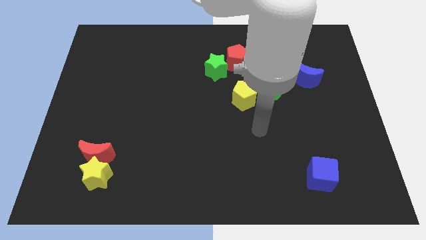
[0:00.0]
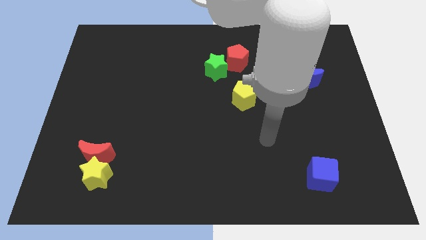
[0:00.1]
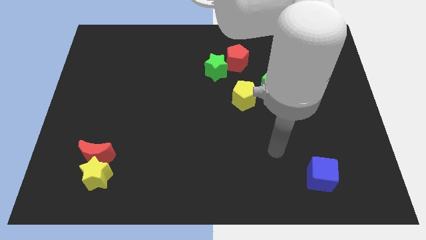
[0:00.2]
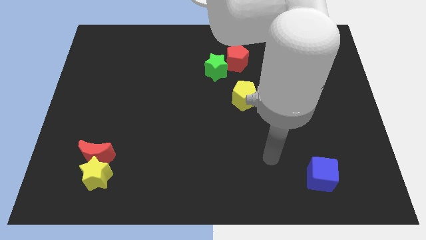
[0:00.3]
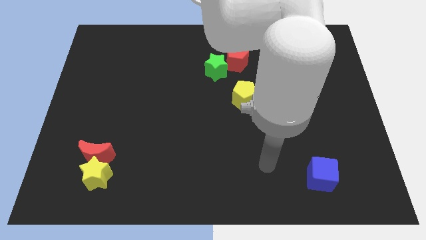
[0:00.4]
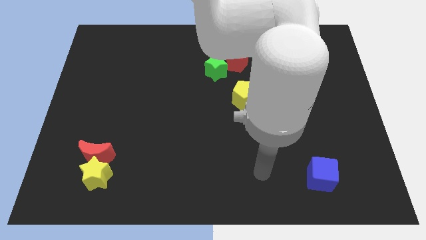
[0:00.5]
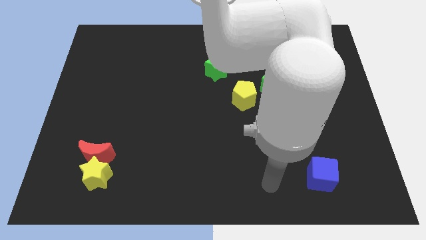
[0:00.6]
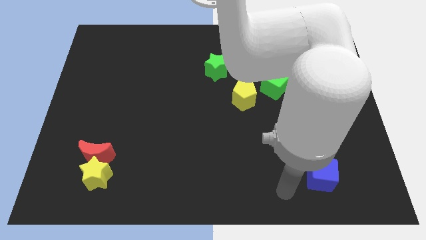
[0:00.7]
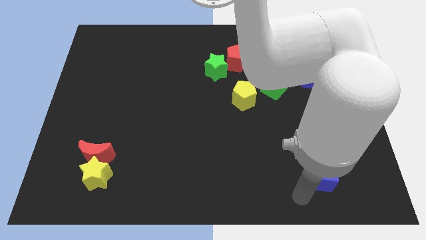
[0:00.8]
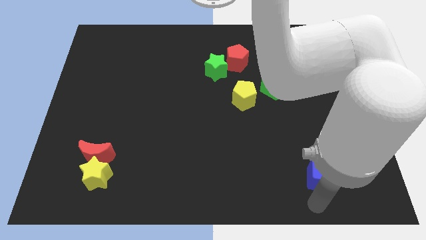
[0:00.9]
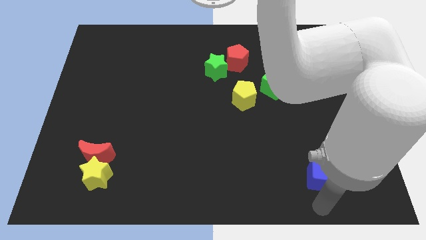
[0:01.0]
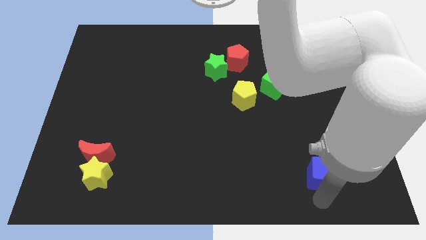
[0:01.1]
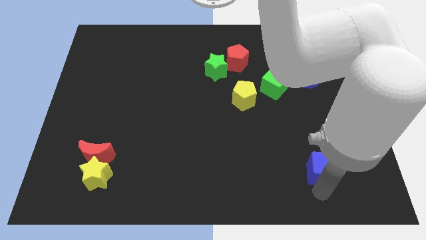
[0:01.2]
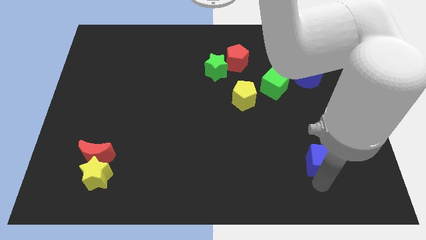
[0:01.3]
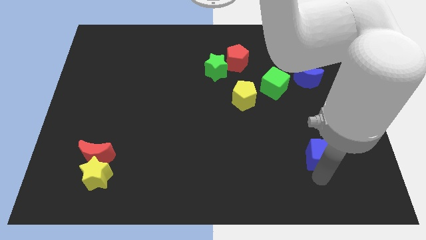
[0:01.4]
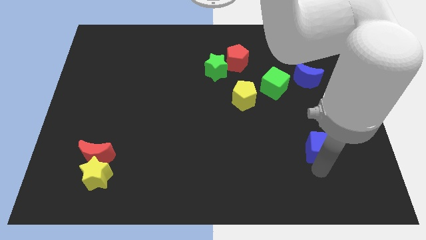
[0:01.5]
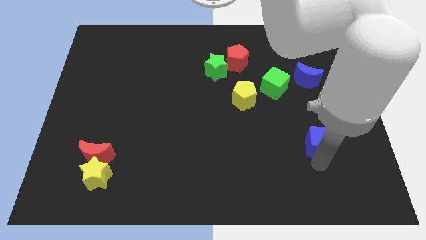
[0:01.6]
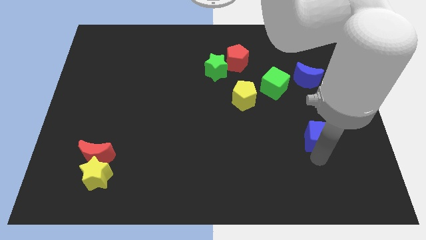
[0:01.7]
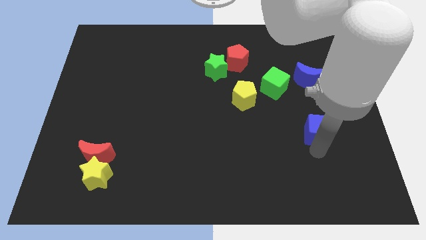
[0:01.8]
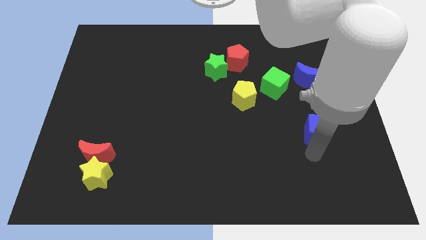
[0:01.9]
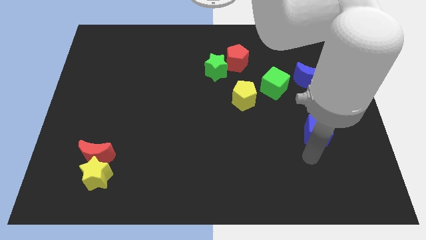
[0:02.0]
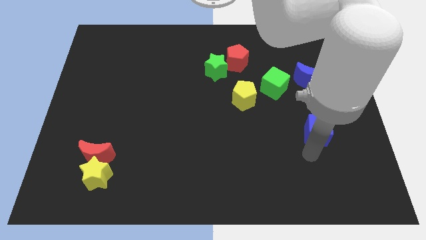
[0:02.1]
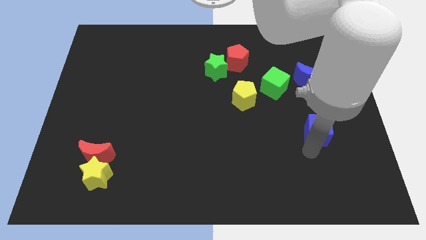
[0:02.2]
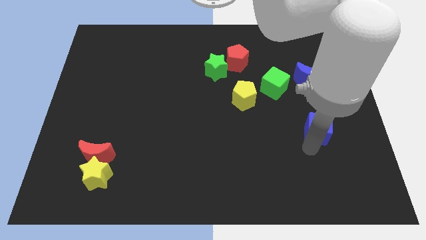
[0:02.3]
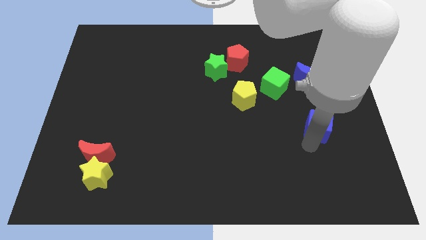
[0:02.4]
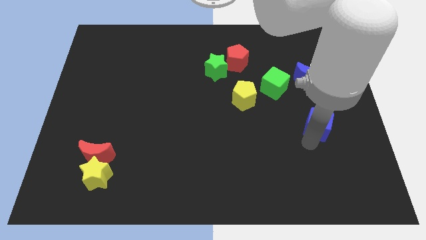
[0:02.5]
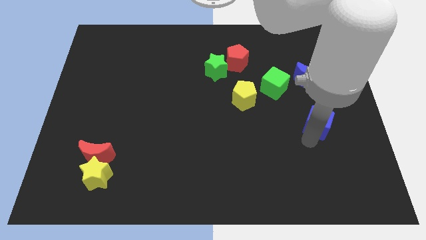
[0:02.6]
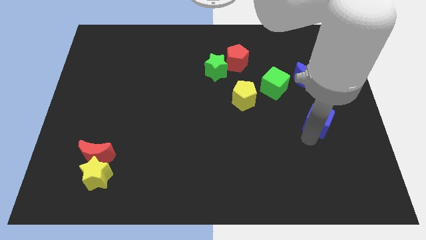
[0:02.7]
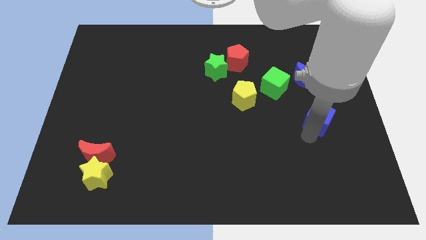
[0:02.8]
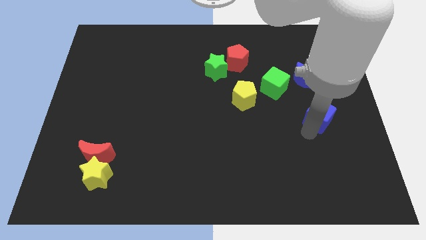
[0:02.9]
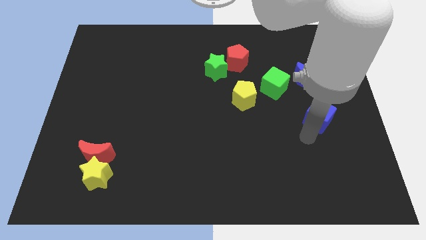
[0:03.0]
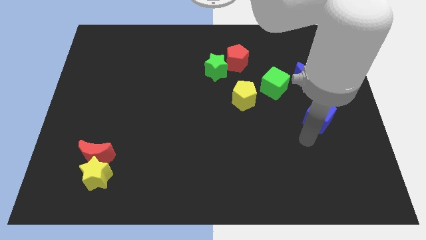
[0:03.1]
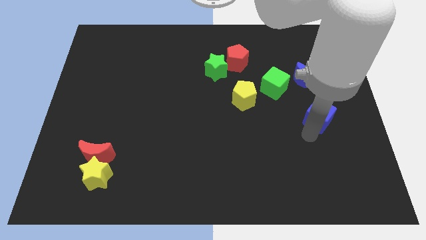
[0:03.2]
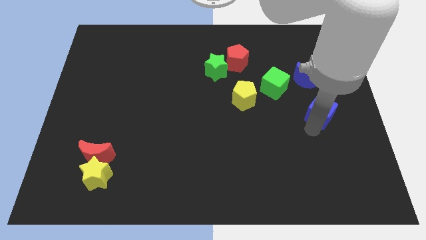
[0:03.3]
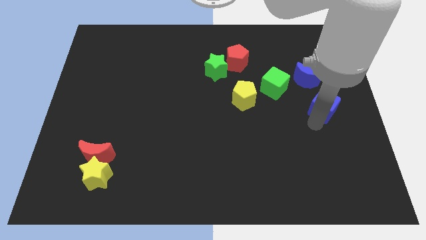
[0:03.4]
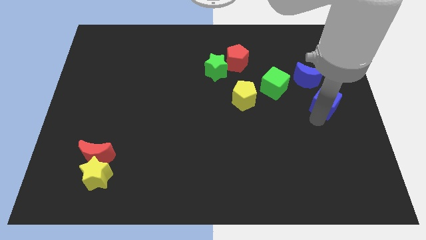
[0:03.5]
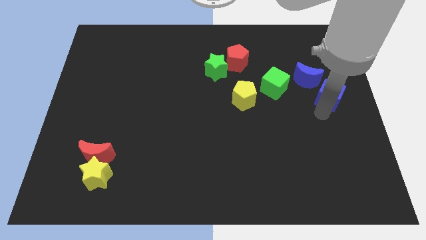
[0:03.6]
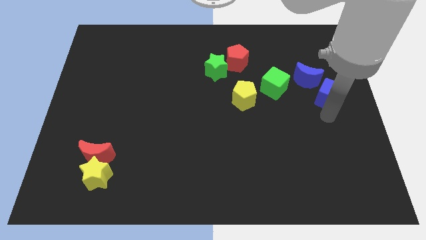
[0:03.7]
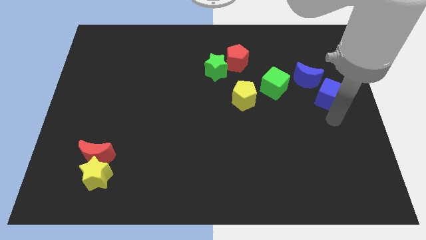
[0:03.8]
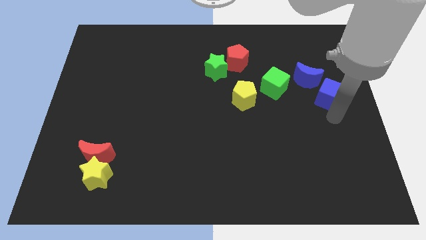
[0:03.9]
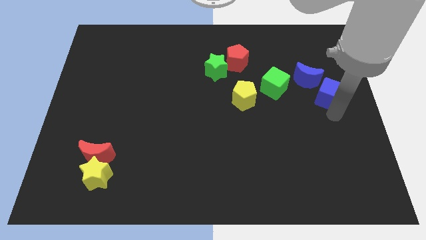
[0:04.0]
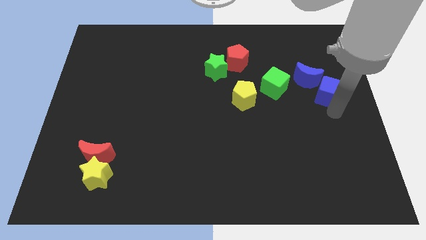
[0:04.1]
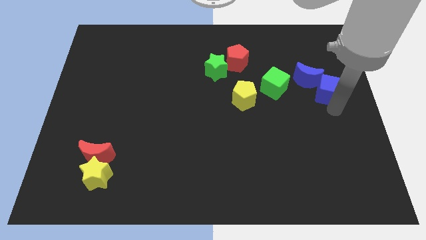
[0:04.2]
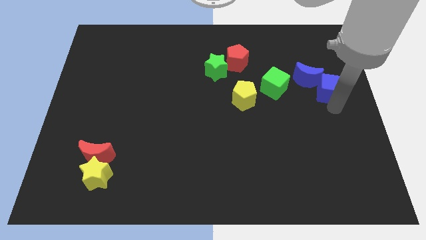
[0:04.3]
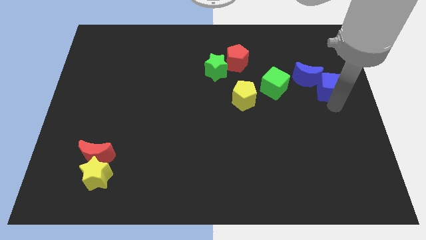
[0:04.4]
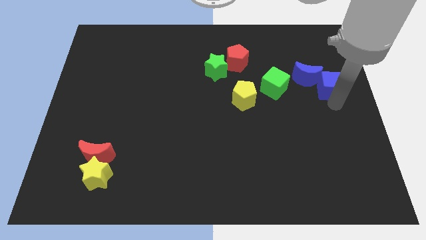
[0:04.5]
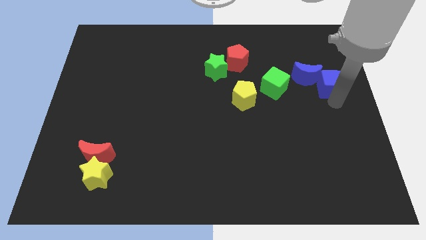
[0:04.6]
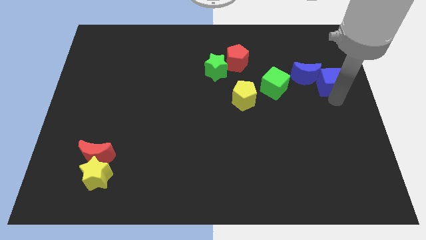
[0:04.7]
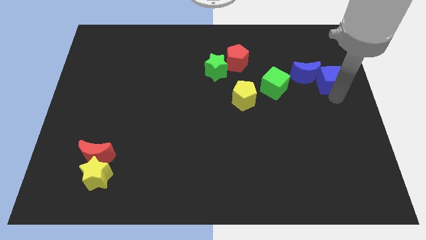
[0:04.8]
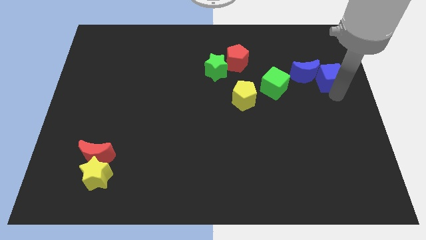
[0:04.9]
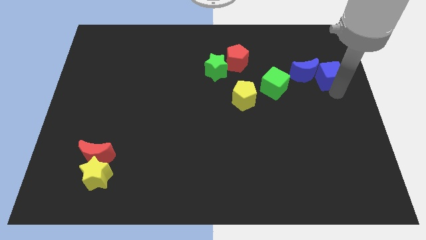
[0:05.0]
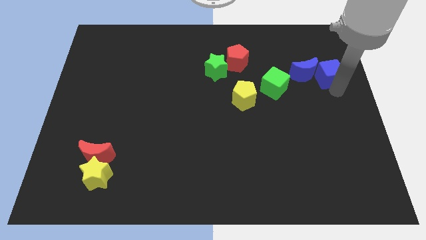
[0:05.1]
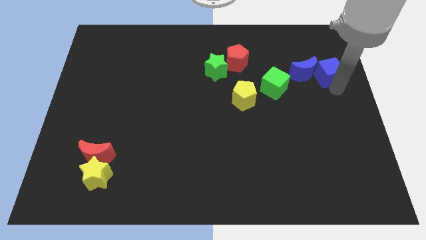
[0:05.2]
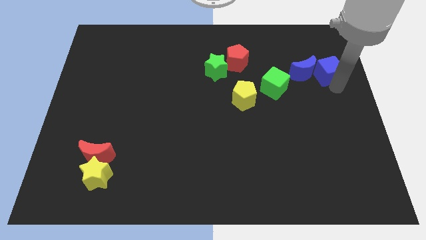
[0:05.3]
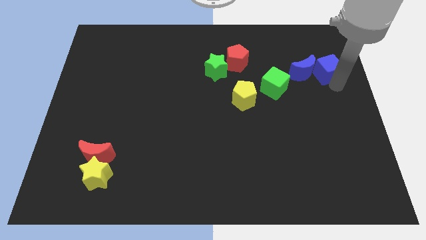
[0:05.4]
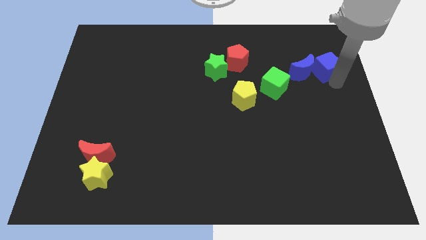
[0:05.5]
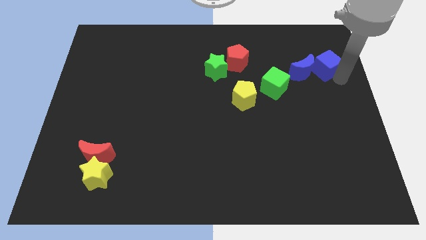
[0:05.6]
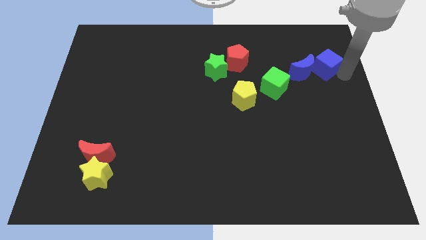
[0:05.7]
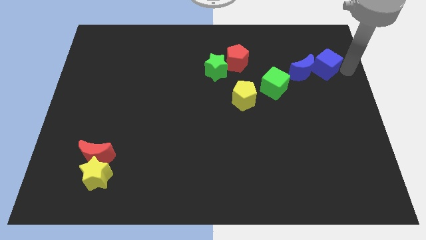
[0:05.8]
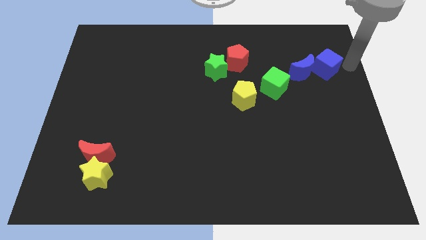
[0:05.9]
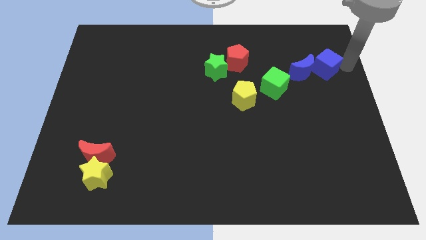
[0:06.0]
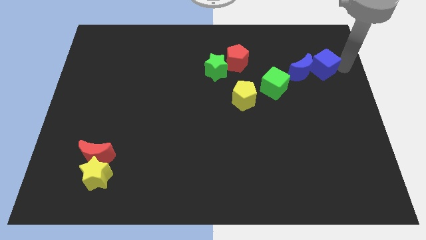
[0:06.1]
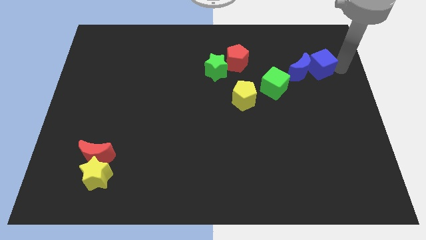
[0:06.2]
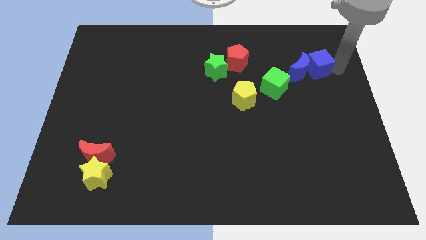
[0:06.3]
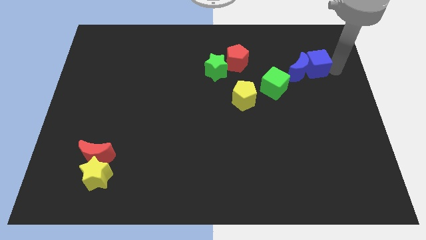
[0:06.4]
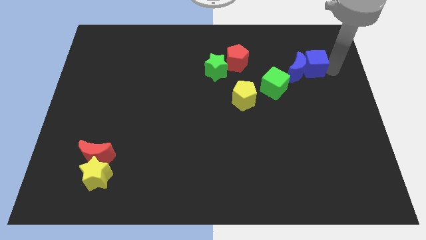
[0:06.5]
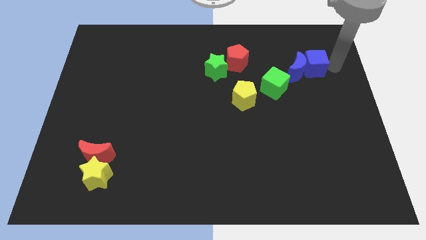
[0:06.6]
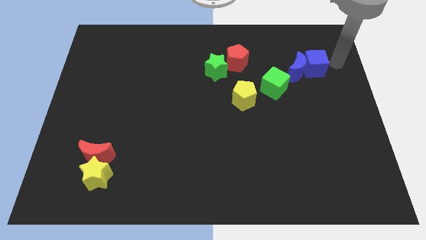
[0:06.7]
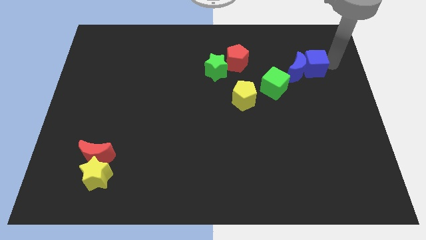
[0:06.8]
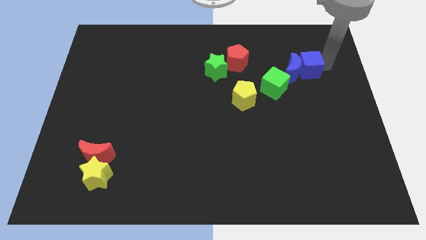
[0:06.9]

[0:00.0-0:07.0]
put the blue cube to the top right side of the green cube
